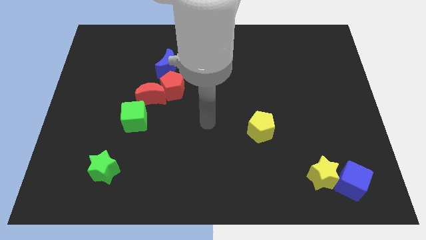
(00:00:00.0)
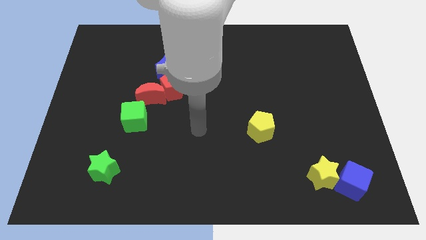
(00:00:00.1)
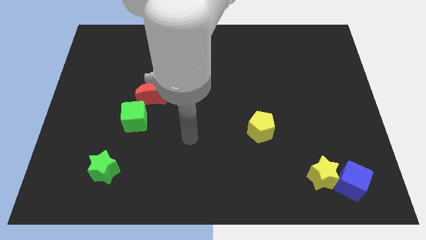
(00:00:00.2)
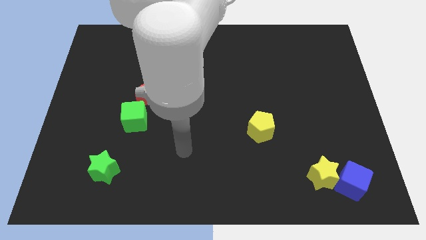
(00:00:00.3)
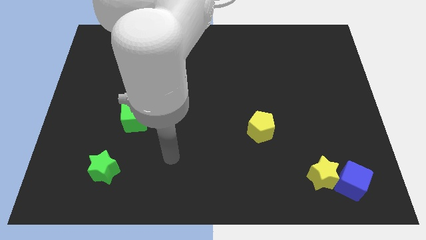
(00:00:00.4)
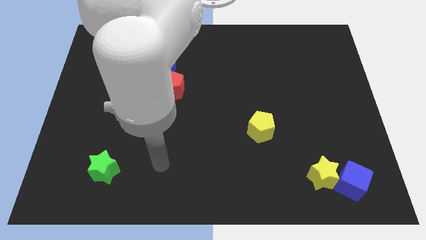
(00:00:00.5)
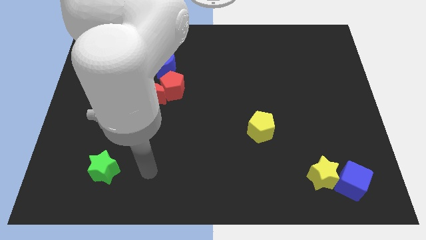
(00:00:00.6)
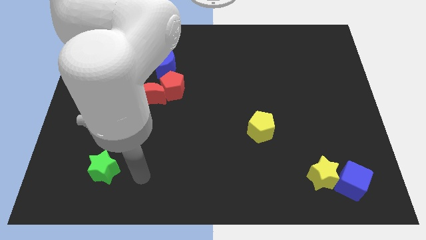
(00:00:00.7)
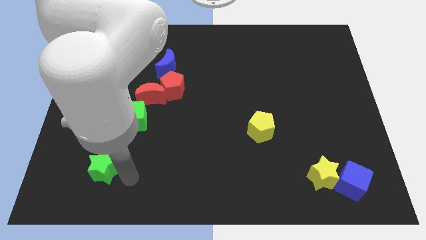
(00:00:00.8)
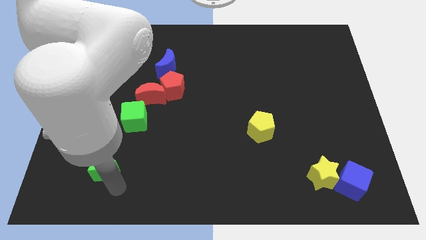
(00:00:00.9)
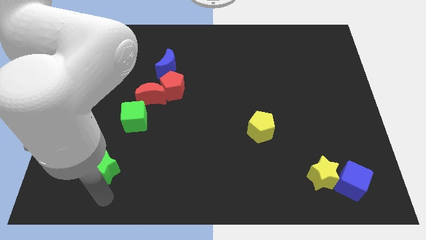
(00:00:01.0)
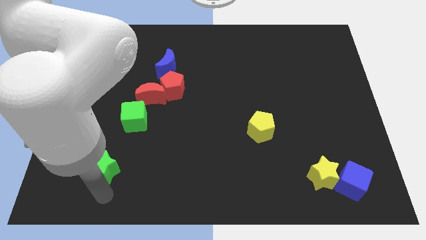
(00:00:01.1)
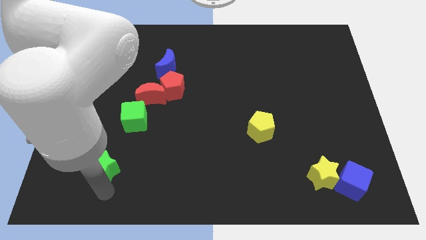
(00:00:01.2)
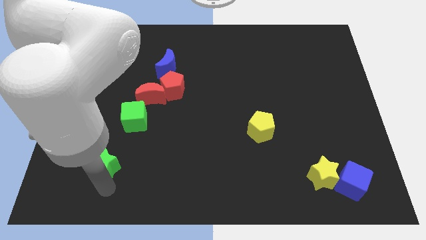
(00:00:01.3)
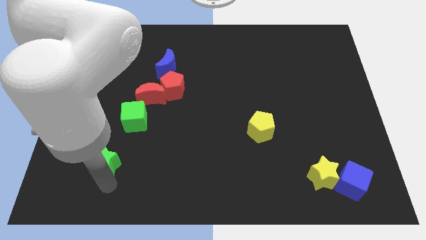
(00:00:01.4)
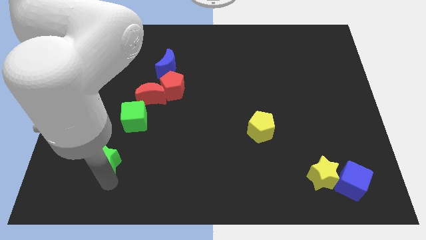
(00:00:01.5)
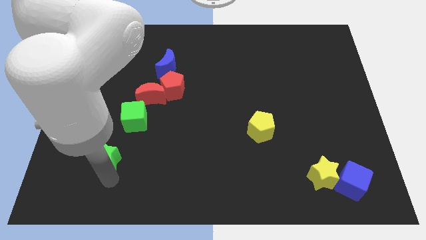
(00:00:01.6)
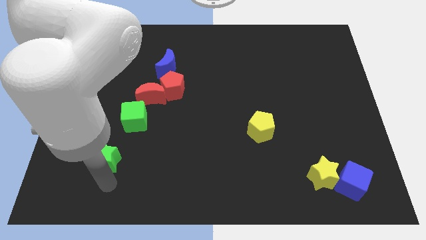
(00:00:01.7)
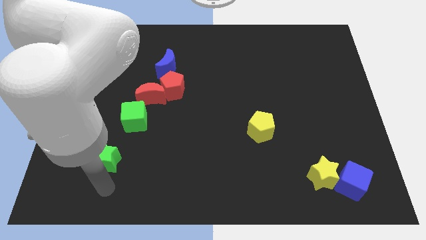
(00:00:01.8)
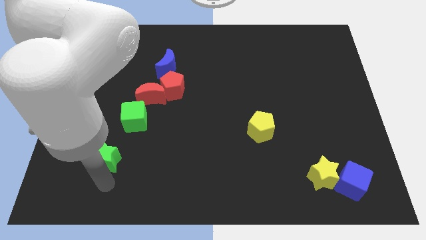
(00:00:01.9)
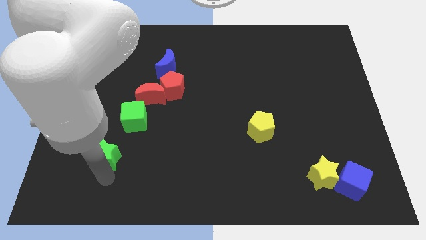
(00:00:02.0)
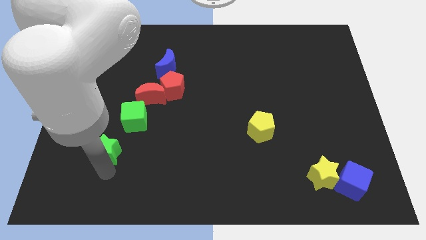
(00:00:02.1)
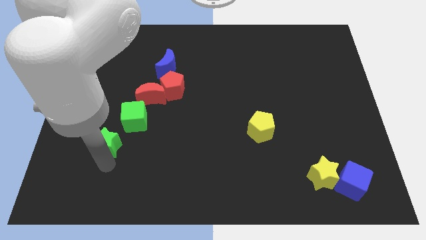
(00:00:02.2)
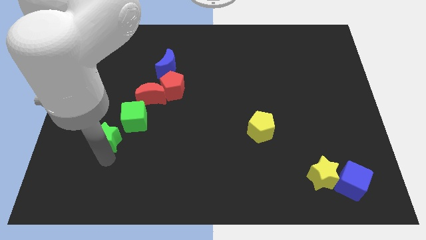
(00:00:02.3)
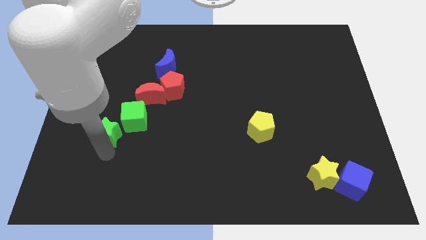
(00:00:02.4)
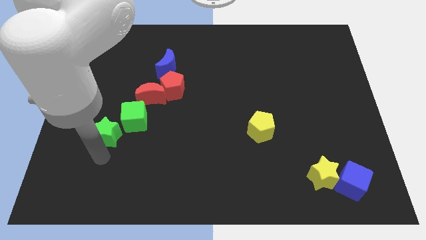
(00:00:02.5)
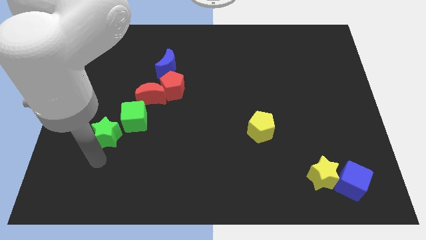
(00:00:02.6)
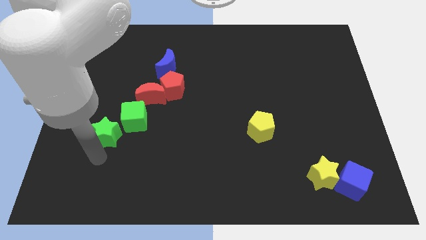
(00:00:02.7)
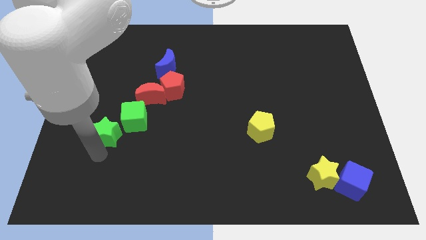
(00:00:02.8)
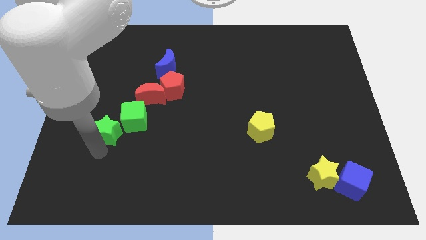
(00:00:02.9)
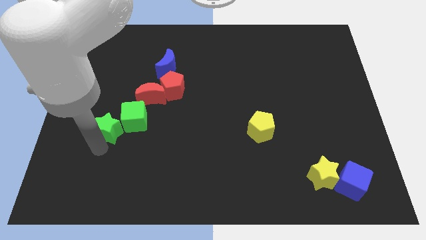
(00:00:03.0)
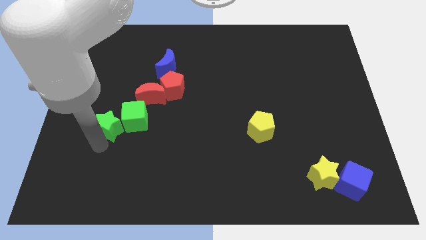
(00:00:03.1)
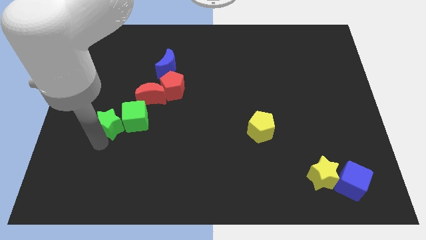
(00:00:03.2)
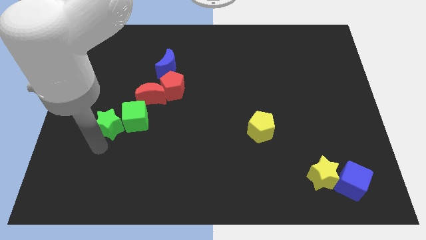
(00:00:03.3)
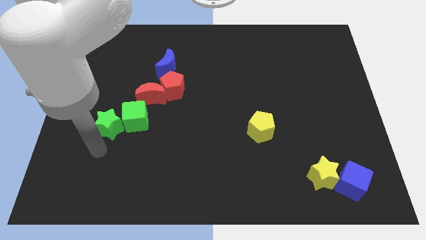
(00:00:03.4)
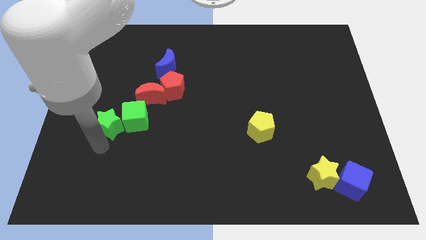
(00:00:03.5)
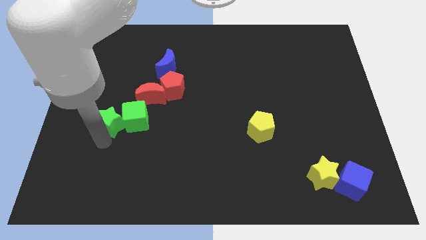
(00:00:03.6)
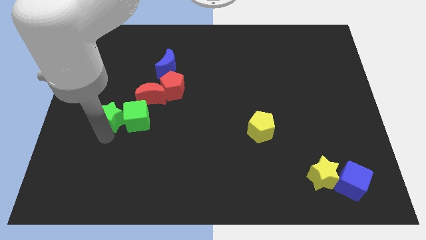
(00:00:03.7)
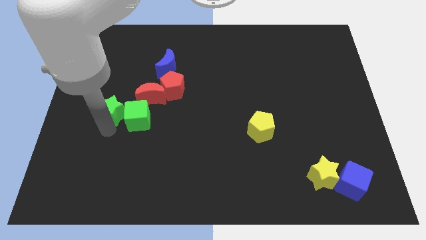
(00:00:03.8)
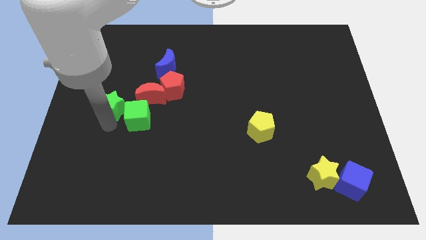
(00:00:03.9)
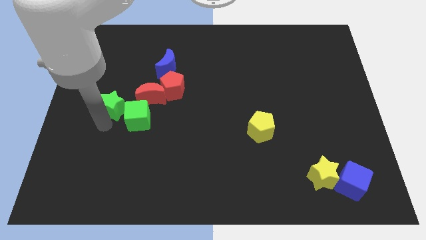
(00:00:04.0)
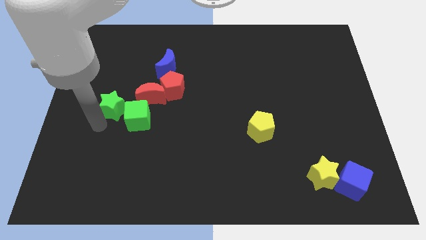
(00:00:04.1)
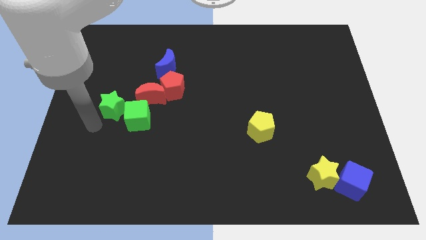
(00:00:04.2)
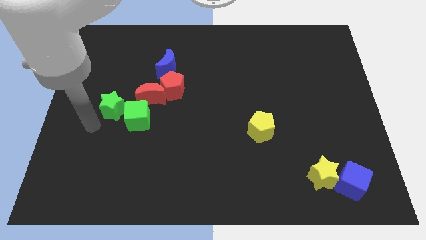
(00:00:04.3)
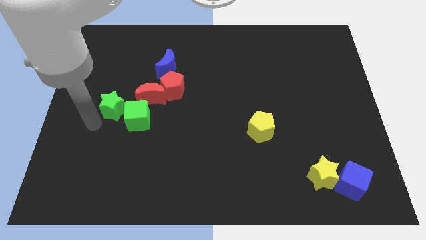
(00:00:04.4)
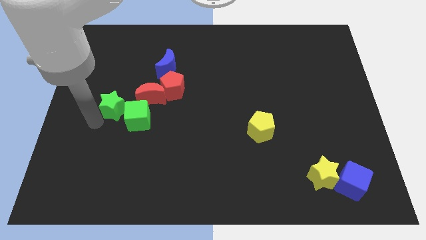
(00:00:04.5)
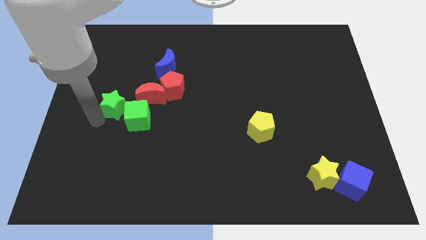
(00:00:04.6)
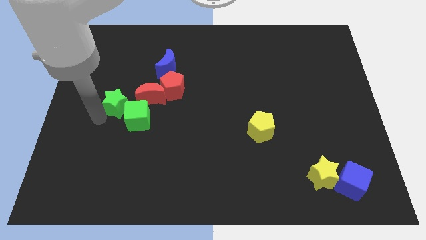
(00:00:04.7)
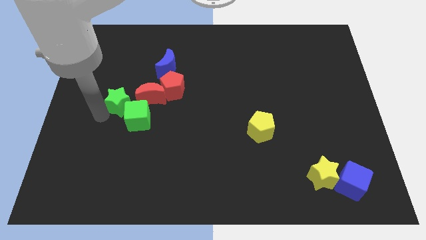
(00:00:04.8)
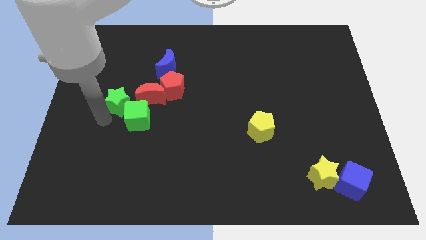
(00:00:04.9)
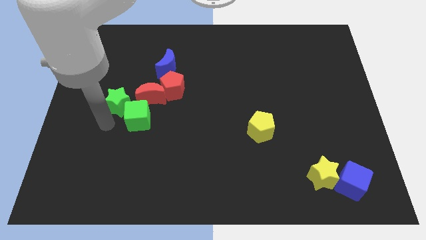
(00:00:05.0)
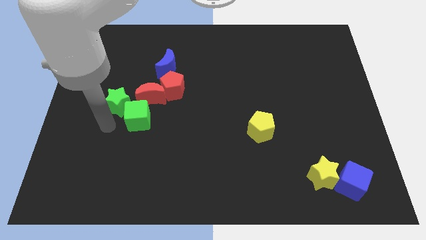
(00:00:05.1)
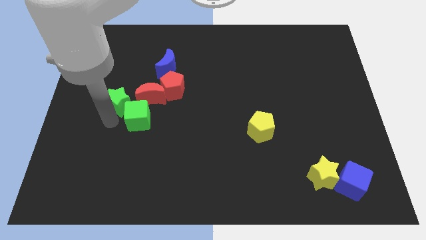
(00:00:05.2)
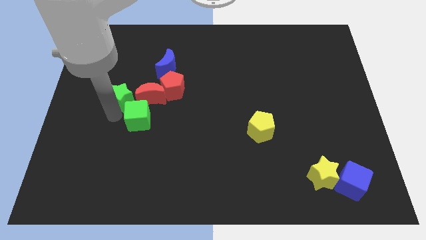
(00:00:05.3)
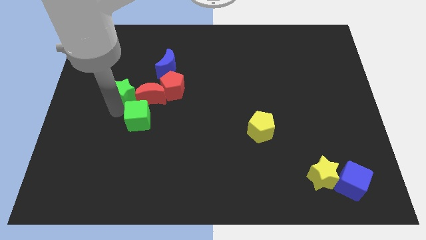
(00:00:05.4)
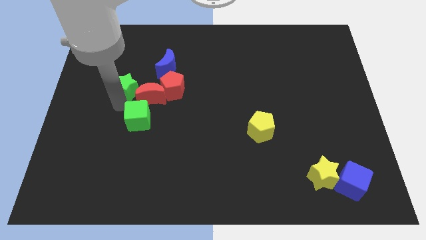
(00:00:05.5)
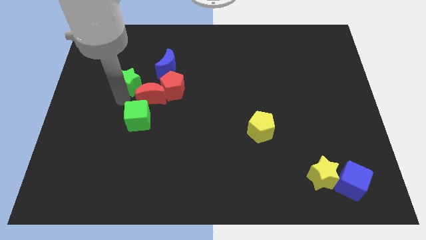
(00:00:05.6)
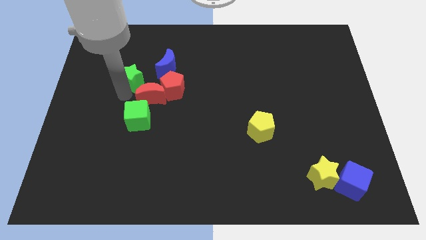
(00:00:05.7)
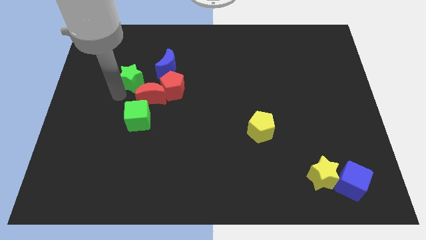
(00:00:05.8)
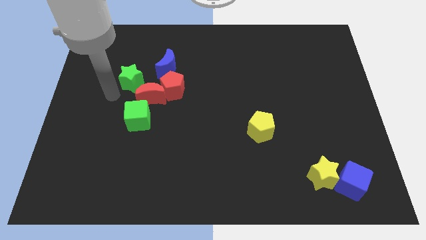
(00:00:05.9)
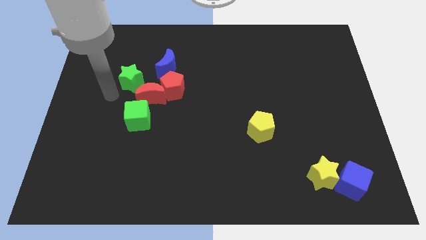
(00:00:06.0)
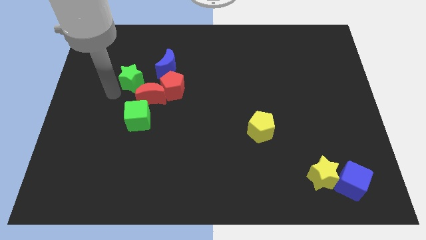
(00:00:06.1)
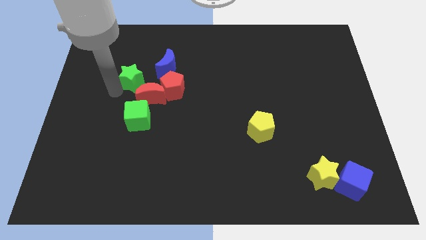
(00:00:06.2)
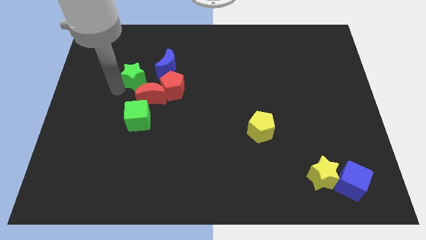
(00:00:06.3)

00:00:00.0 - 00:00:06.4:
push the green star to the top of the red moon
